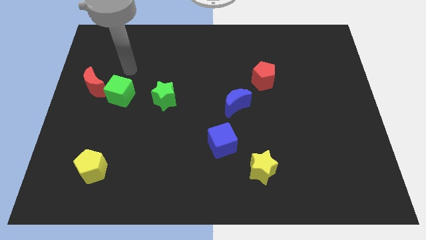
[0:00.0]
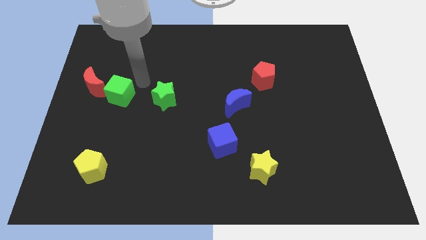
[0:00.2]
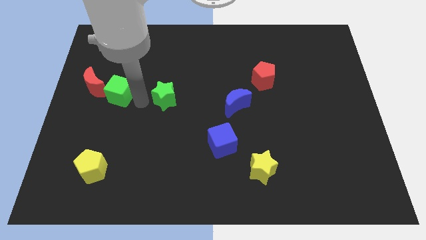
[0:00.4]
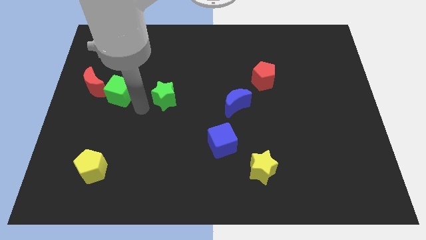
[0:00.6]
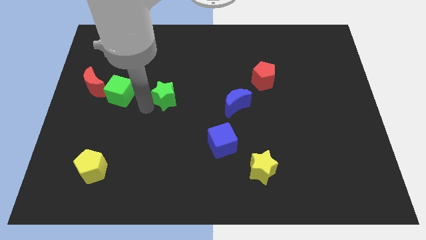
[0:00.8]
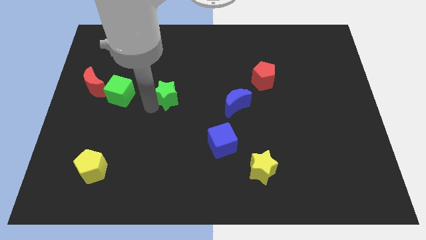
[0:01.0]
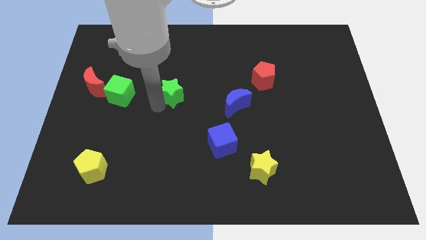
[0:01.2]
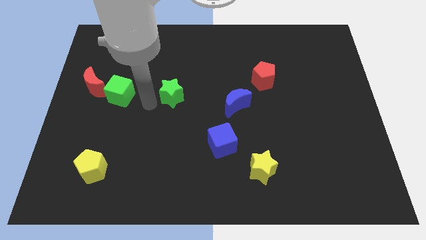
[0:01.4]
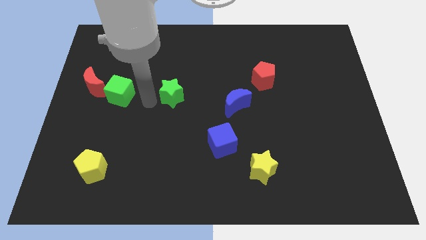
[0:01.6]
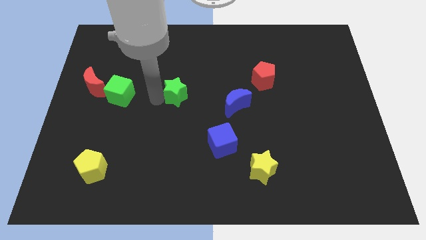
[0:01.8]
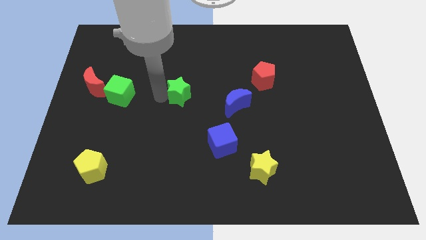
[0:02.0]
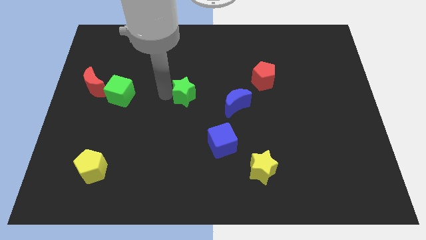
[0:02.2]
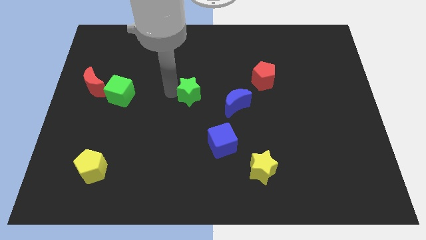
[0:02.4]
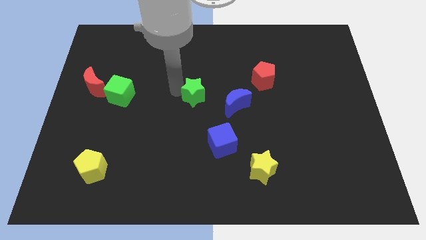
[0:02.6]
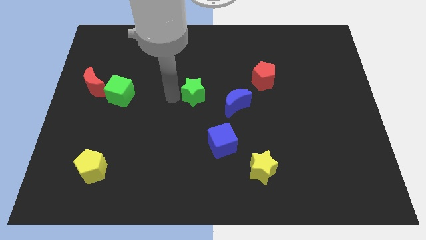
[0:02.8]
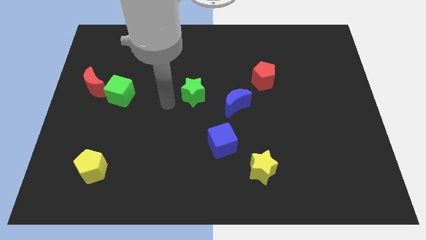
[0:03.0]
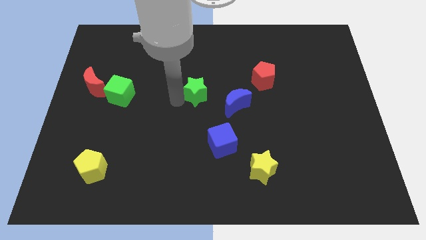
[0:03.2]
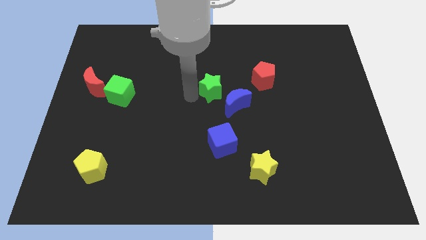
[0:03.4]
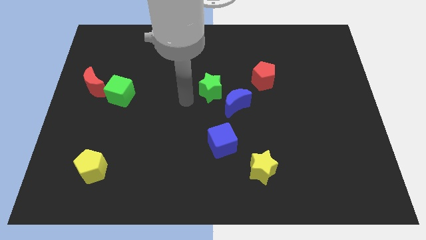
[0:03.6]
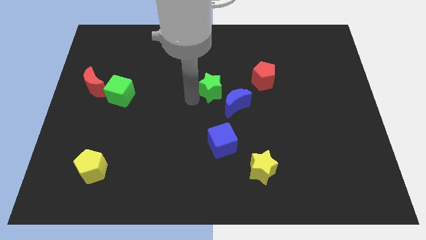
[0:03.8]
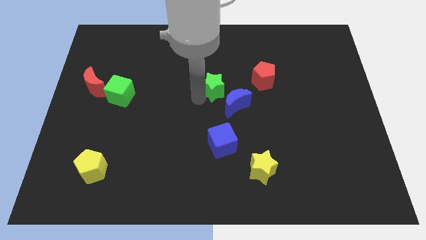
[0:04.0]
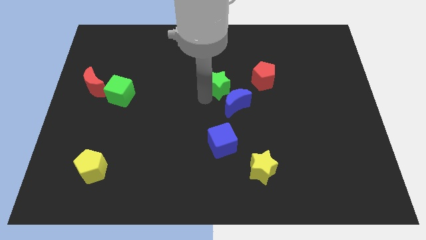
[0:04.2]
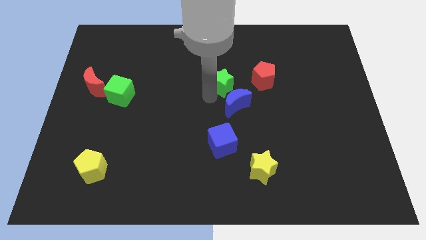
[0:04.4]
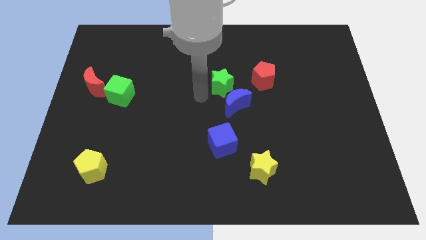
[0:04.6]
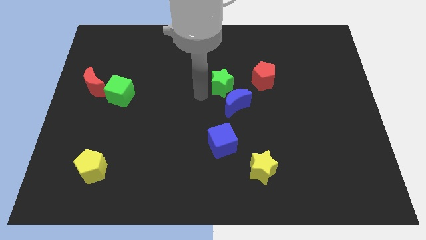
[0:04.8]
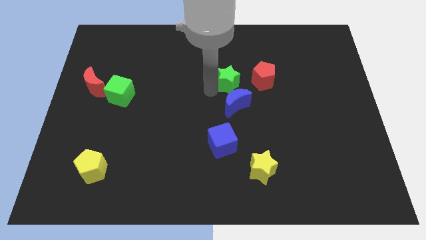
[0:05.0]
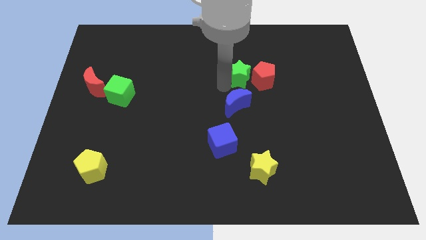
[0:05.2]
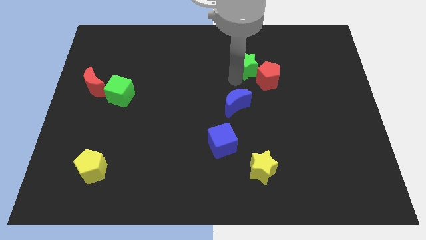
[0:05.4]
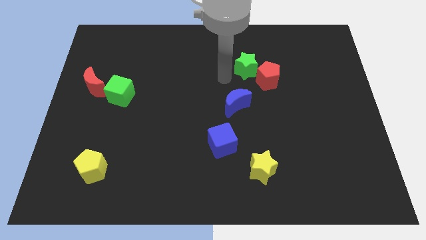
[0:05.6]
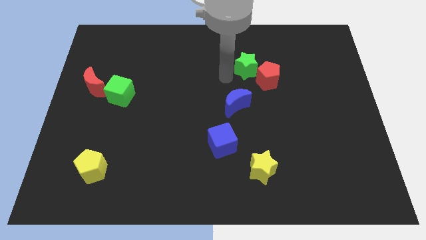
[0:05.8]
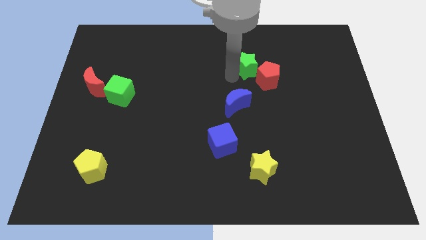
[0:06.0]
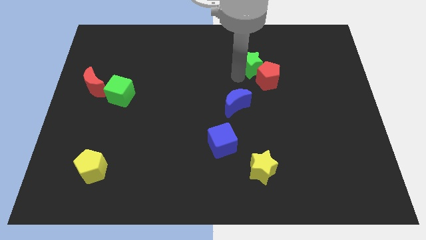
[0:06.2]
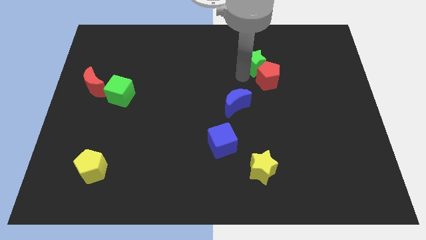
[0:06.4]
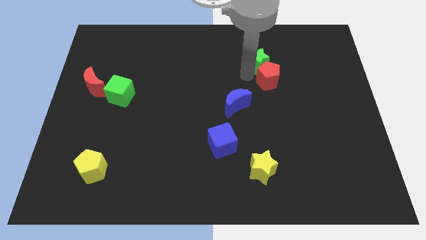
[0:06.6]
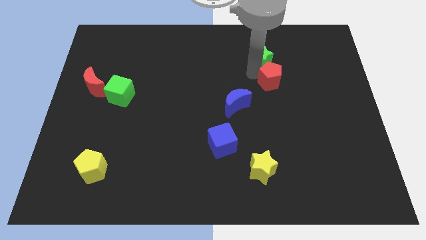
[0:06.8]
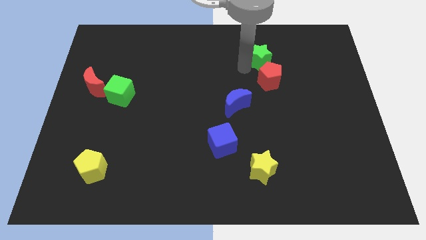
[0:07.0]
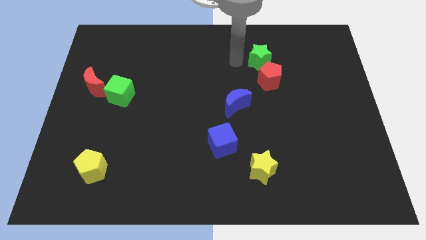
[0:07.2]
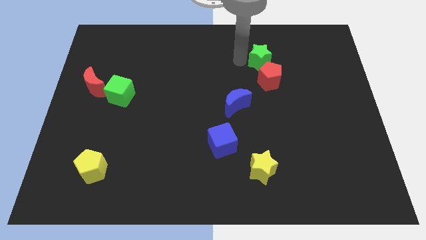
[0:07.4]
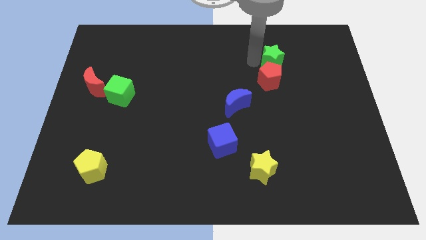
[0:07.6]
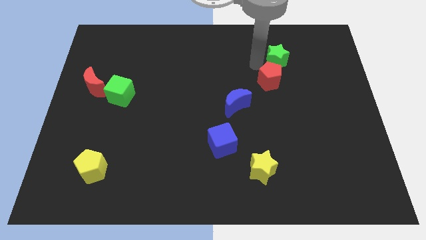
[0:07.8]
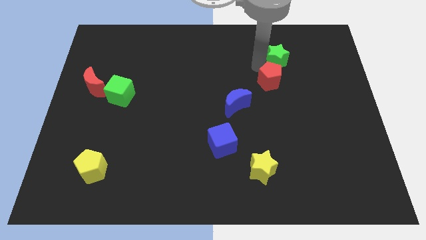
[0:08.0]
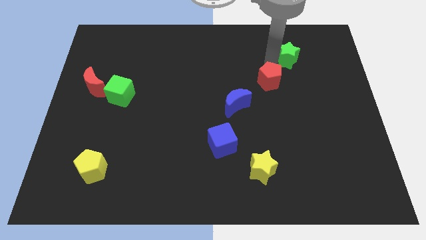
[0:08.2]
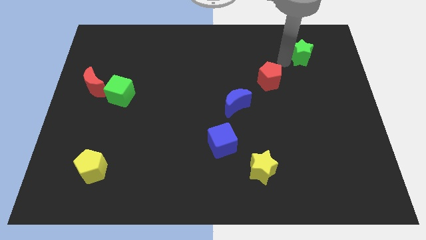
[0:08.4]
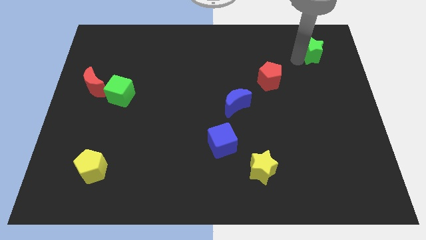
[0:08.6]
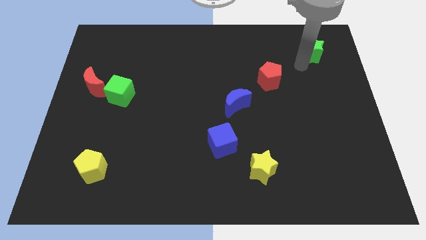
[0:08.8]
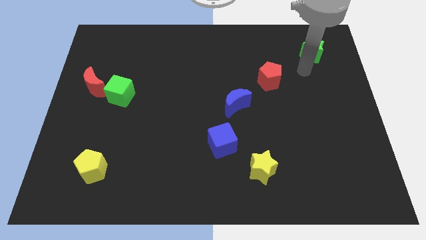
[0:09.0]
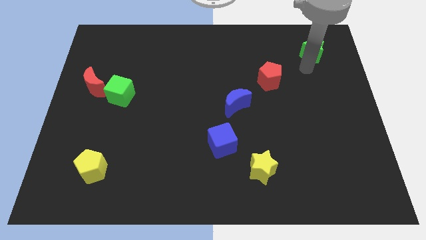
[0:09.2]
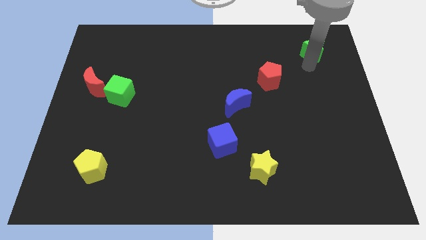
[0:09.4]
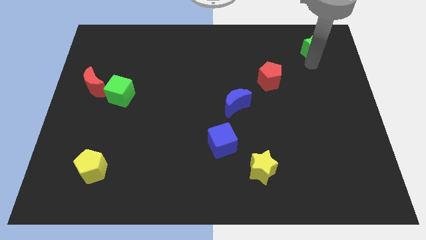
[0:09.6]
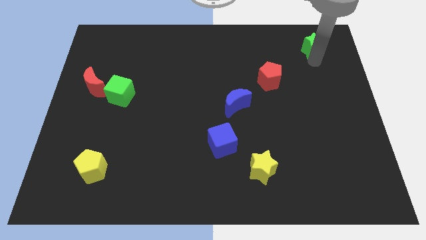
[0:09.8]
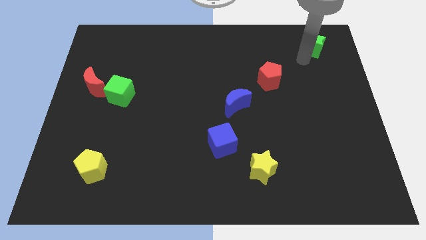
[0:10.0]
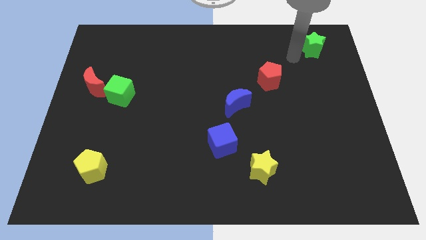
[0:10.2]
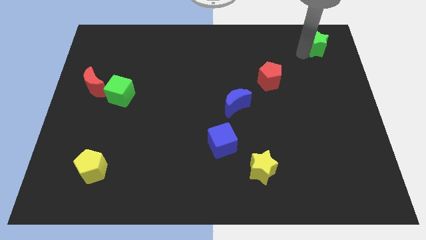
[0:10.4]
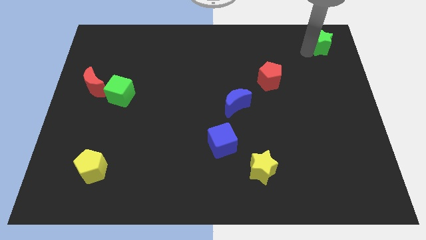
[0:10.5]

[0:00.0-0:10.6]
put the green star to the top right corner

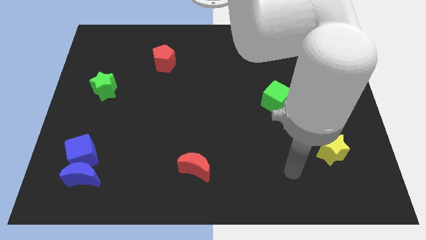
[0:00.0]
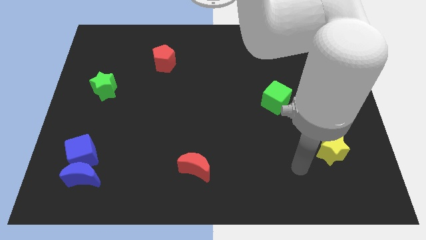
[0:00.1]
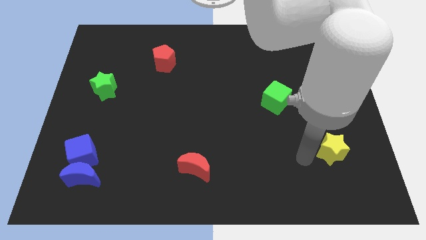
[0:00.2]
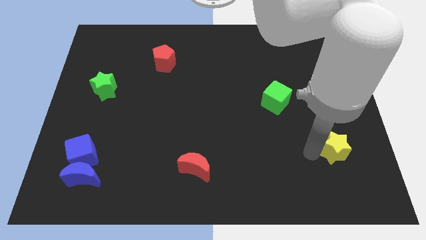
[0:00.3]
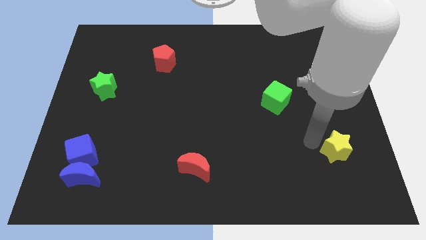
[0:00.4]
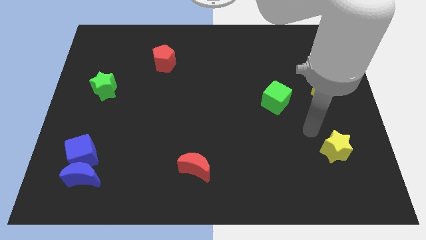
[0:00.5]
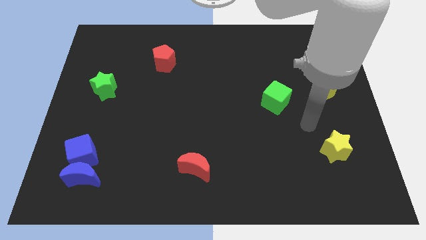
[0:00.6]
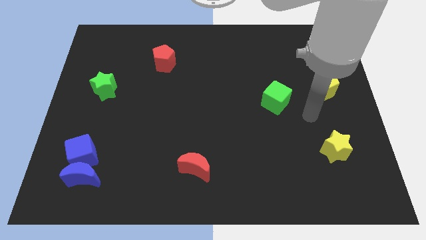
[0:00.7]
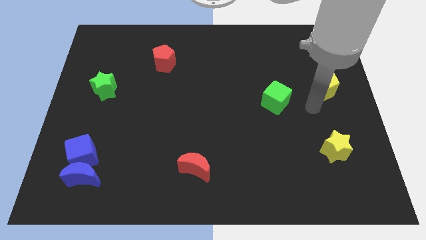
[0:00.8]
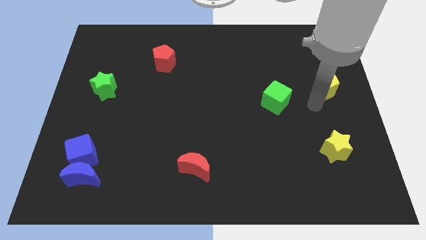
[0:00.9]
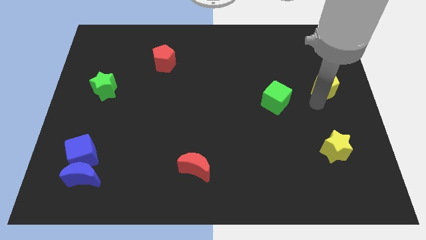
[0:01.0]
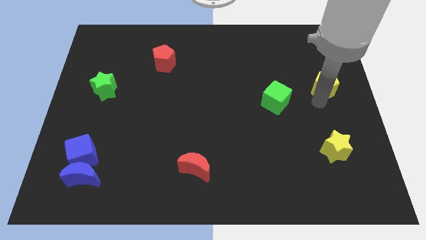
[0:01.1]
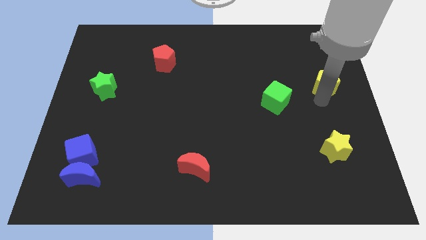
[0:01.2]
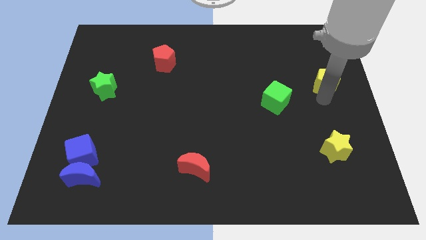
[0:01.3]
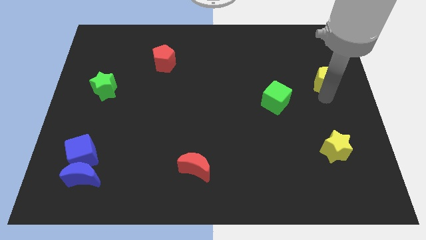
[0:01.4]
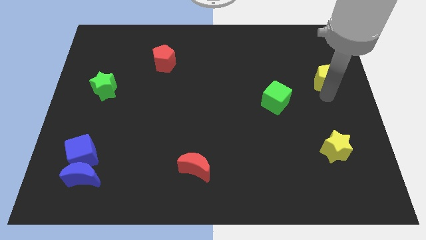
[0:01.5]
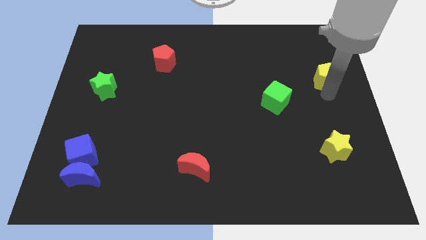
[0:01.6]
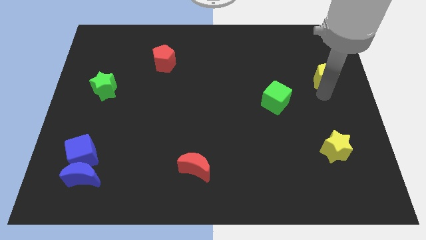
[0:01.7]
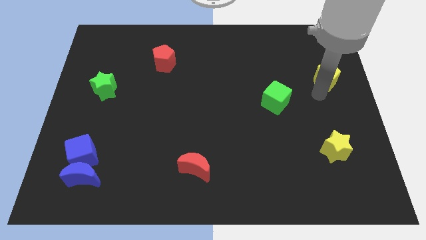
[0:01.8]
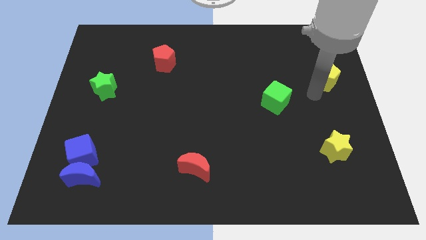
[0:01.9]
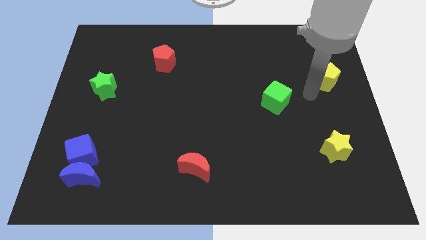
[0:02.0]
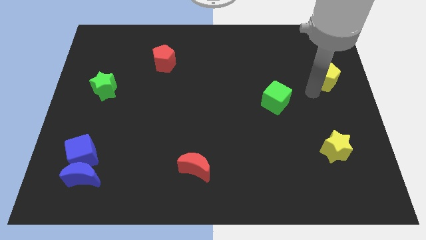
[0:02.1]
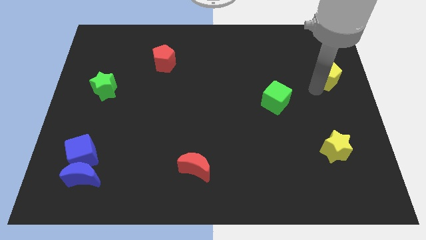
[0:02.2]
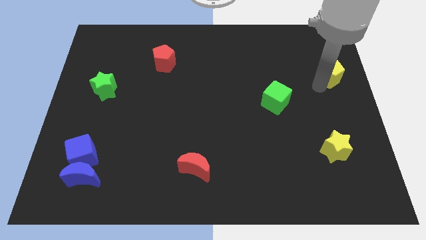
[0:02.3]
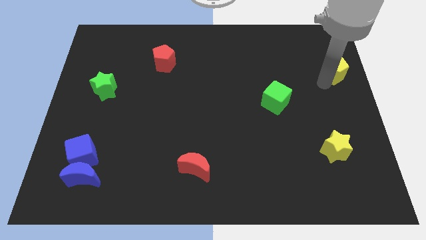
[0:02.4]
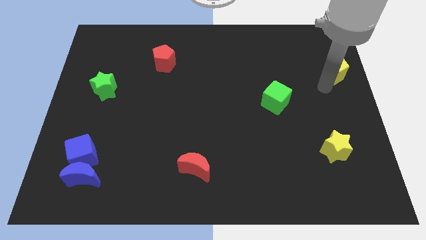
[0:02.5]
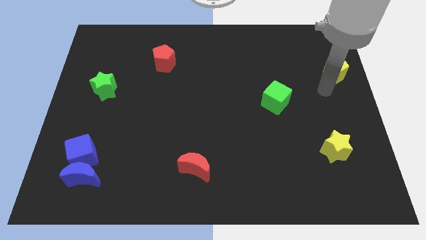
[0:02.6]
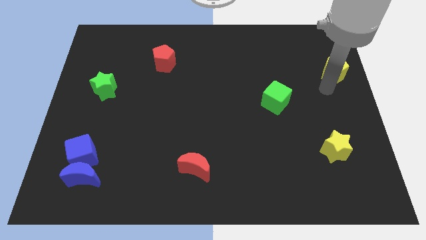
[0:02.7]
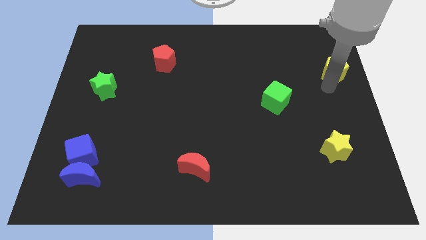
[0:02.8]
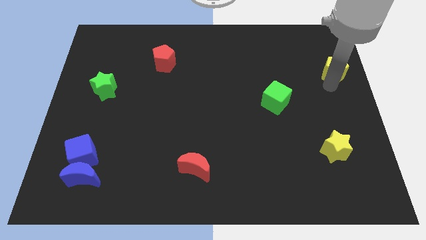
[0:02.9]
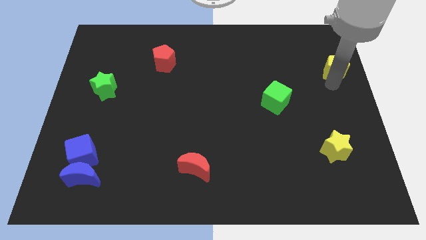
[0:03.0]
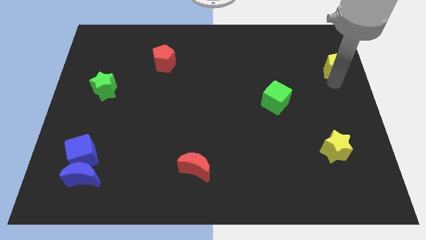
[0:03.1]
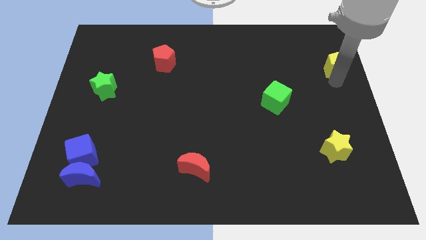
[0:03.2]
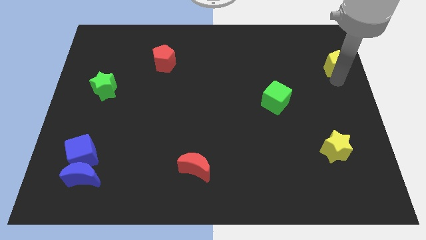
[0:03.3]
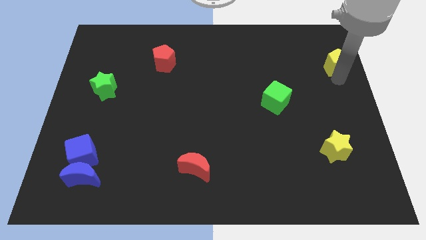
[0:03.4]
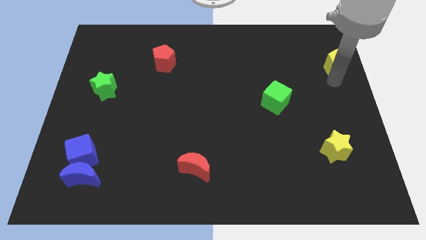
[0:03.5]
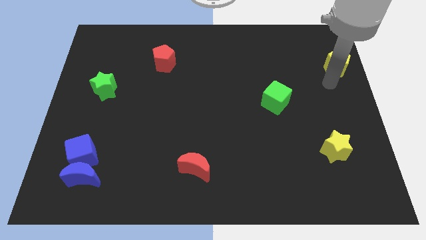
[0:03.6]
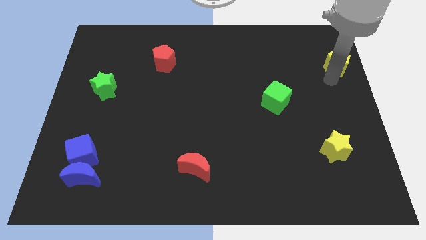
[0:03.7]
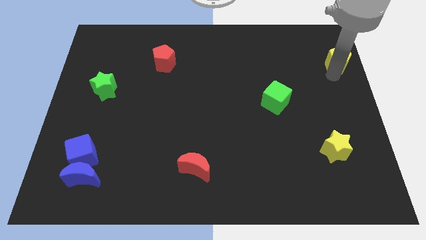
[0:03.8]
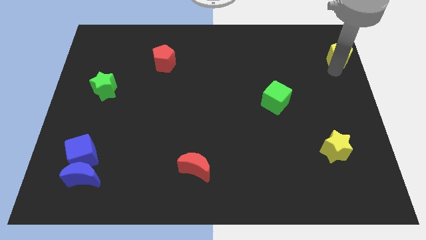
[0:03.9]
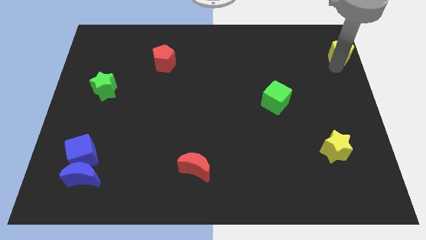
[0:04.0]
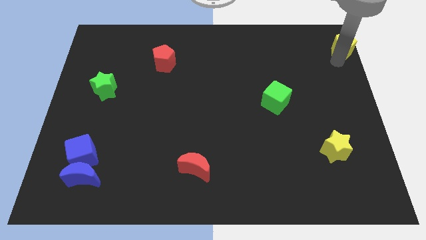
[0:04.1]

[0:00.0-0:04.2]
move the yellow pentagon to the top right of the board
